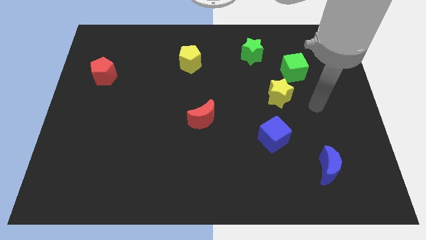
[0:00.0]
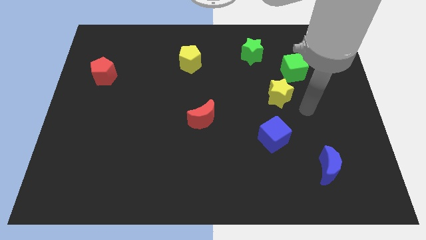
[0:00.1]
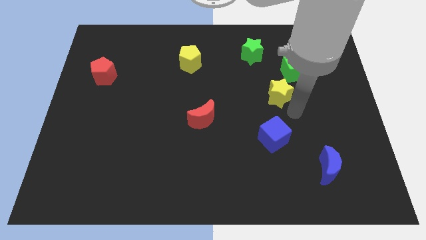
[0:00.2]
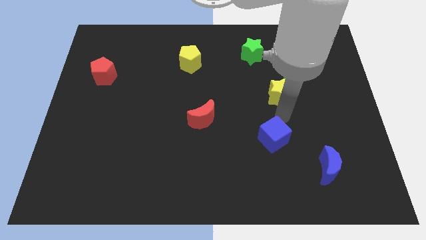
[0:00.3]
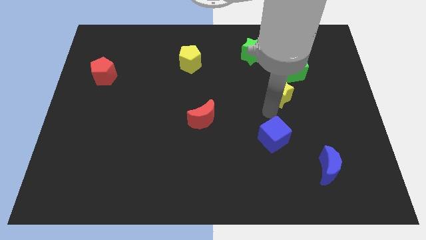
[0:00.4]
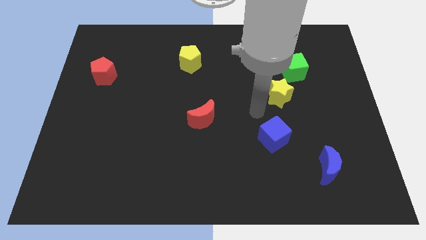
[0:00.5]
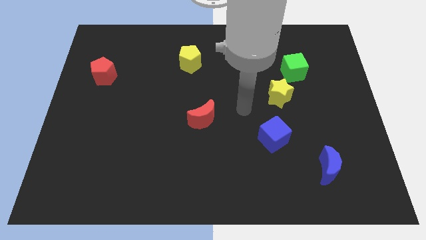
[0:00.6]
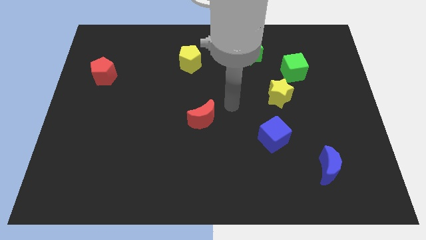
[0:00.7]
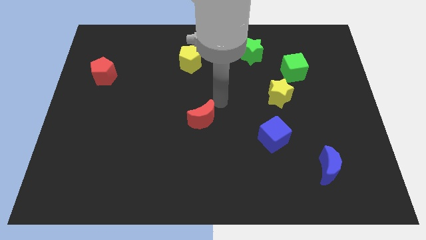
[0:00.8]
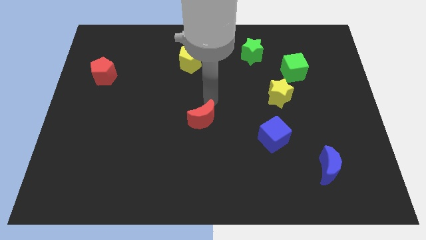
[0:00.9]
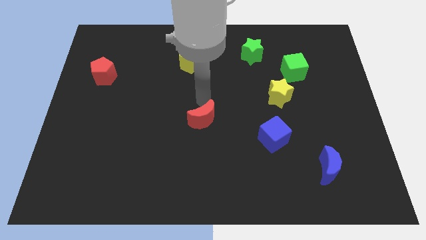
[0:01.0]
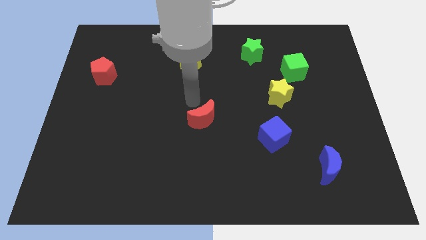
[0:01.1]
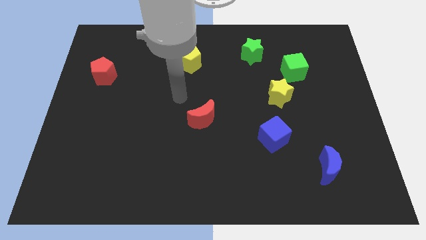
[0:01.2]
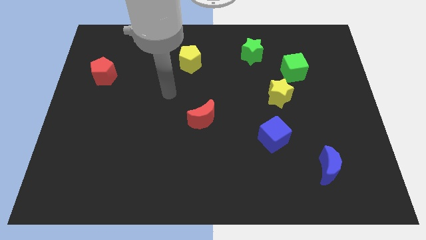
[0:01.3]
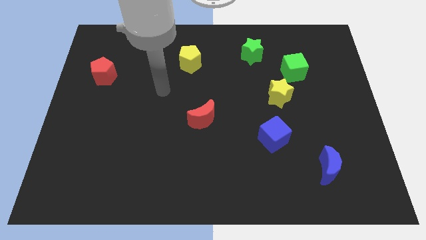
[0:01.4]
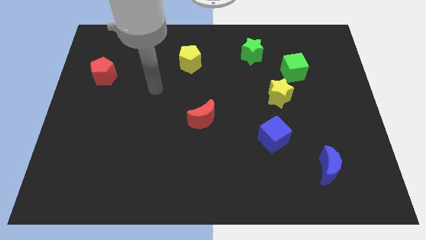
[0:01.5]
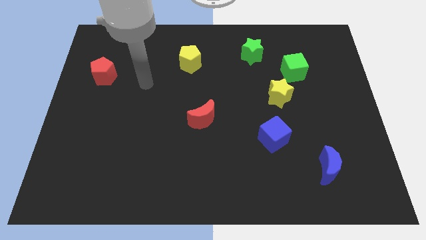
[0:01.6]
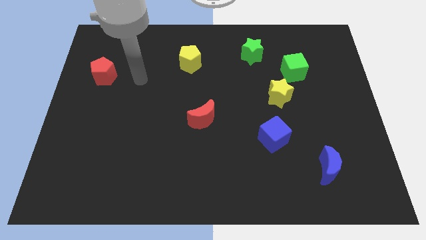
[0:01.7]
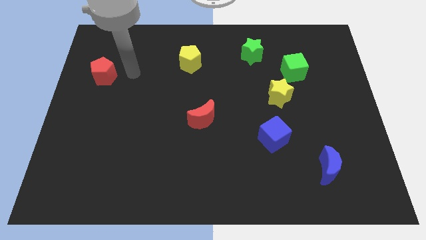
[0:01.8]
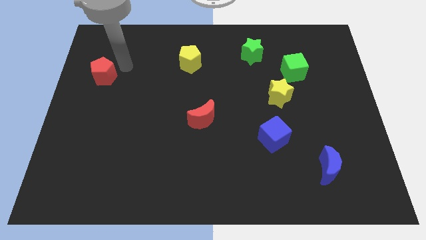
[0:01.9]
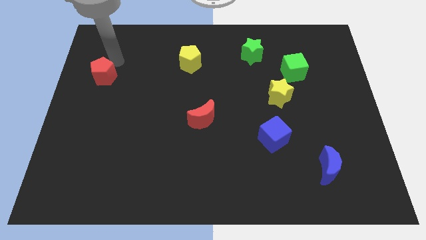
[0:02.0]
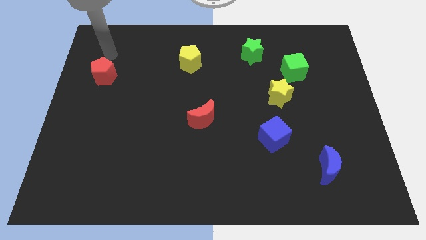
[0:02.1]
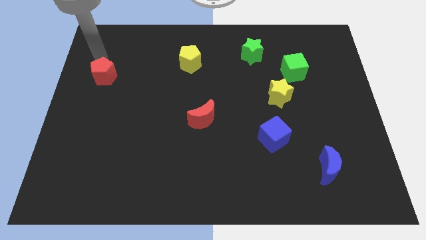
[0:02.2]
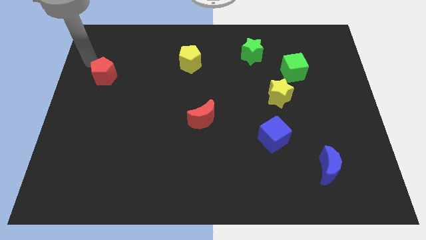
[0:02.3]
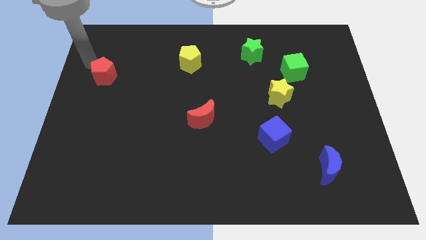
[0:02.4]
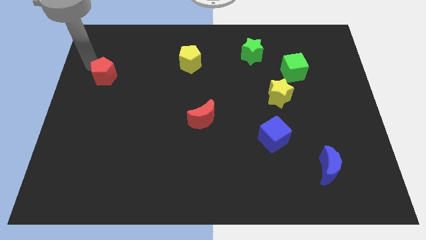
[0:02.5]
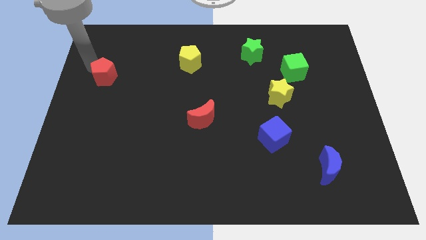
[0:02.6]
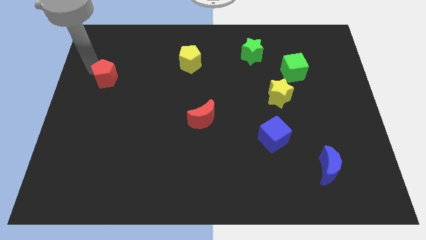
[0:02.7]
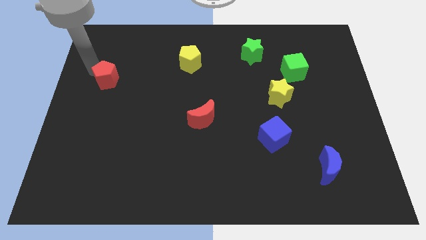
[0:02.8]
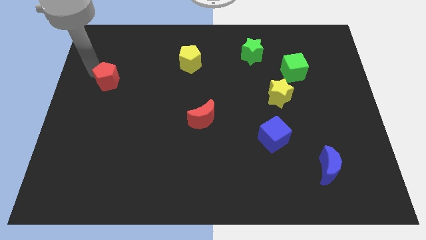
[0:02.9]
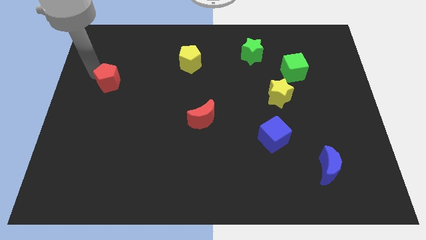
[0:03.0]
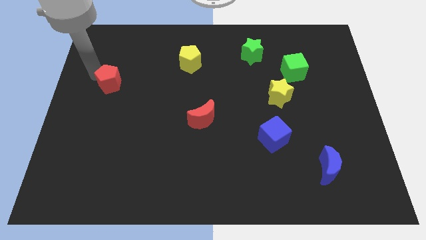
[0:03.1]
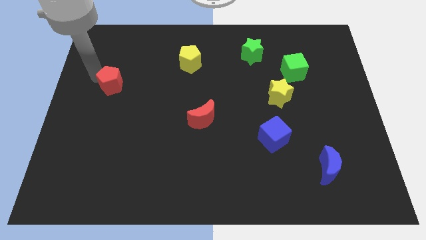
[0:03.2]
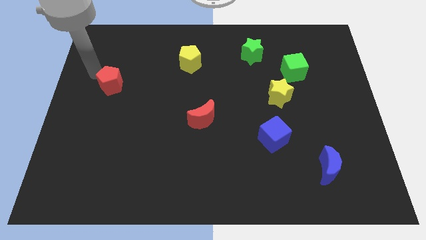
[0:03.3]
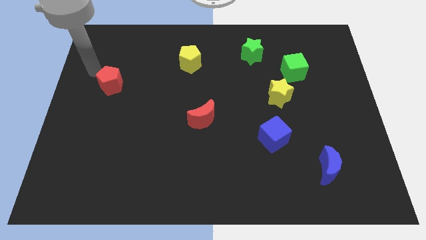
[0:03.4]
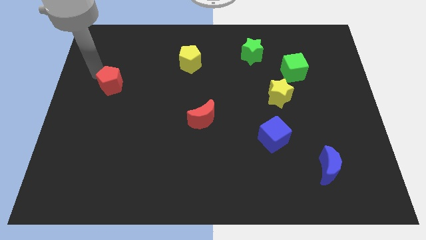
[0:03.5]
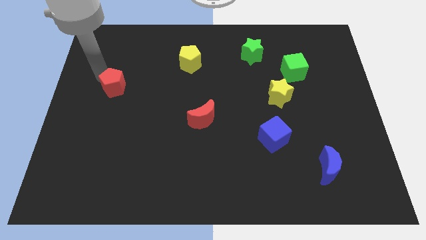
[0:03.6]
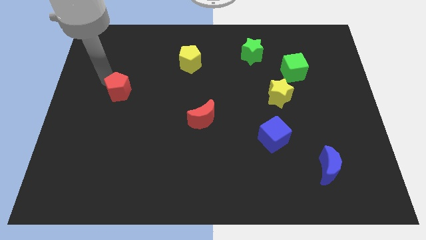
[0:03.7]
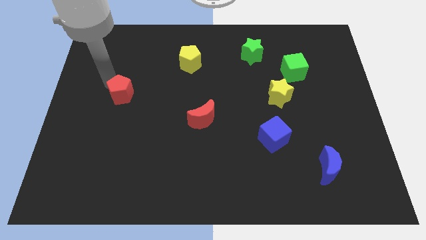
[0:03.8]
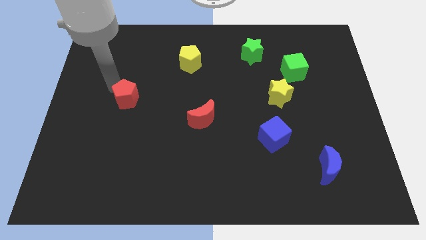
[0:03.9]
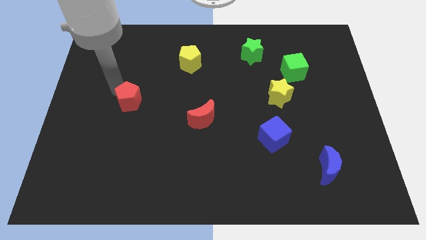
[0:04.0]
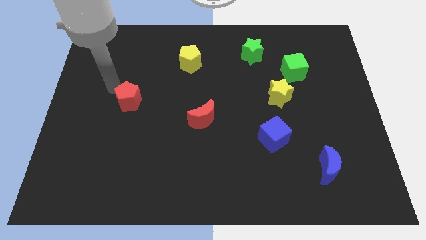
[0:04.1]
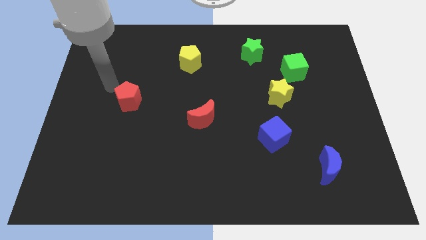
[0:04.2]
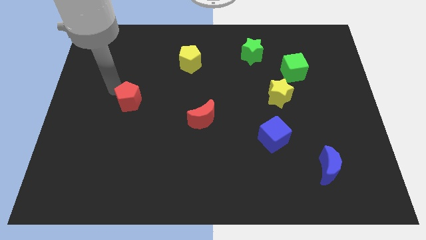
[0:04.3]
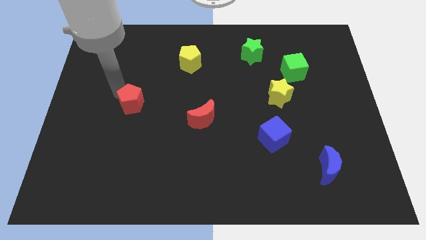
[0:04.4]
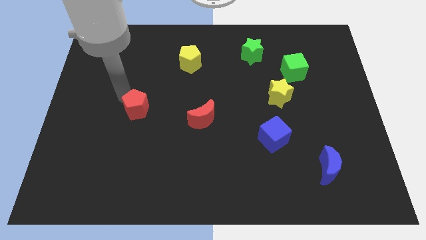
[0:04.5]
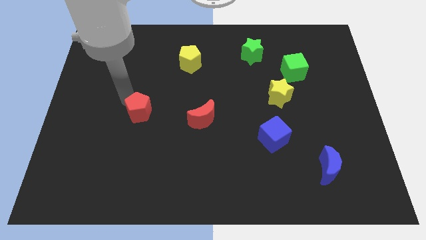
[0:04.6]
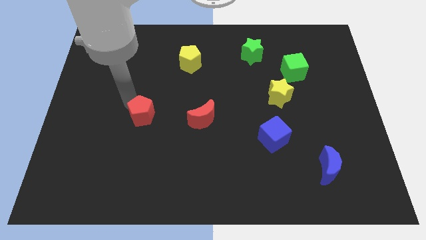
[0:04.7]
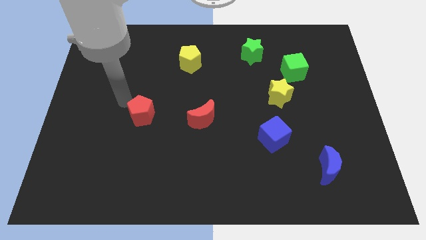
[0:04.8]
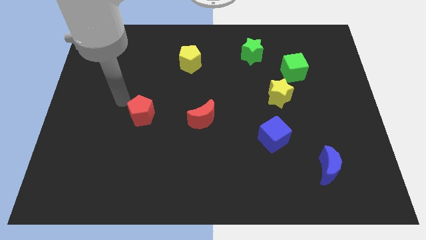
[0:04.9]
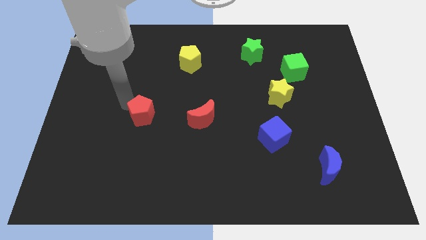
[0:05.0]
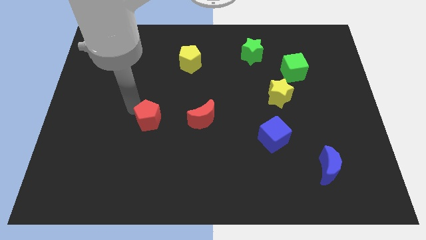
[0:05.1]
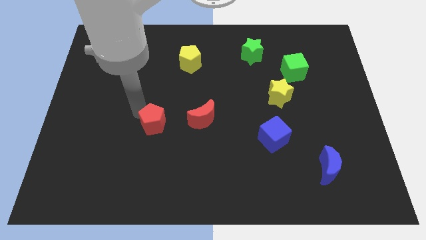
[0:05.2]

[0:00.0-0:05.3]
move the red pentagon downwards and then to the right

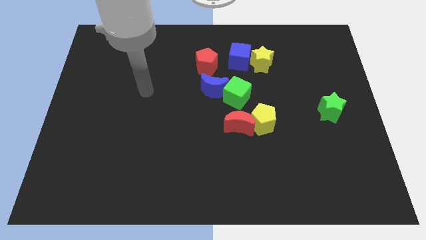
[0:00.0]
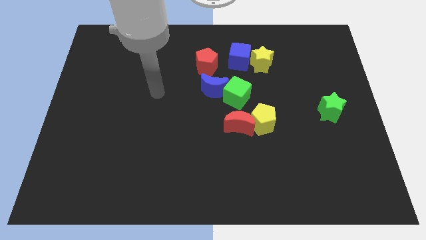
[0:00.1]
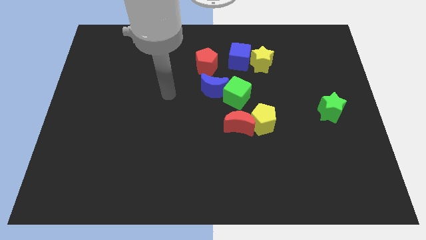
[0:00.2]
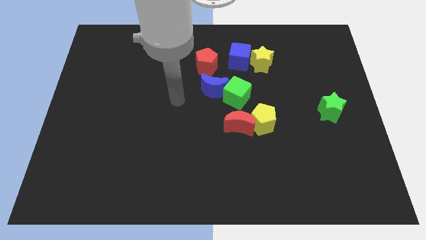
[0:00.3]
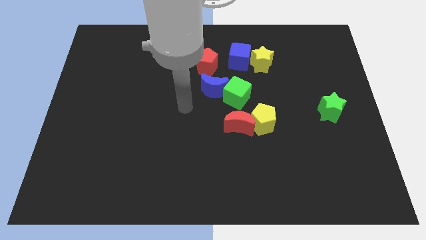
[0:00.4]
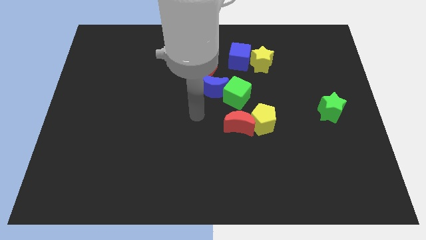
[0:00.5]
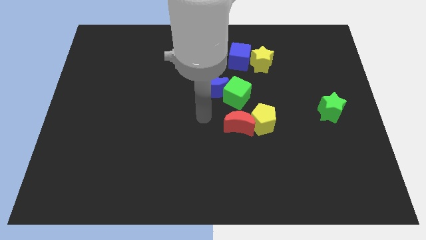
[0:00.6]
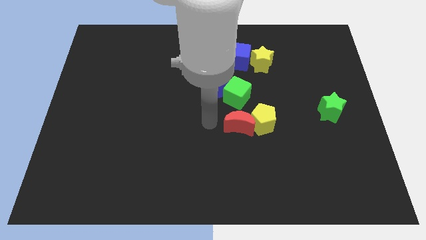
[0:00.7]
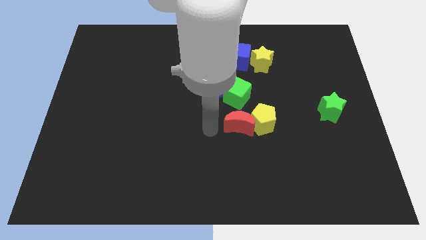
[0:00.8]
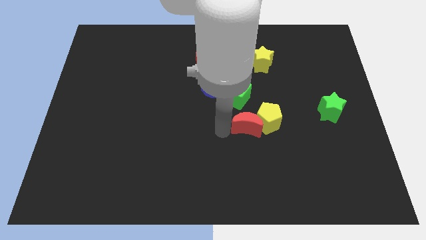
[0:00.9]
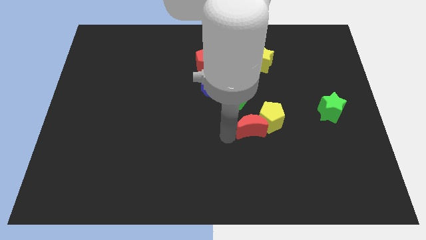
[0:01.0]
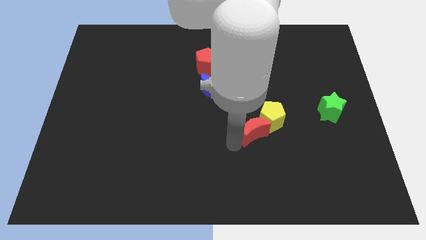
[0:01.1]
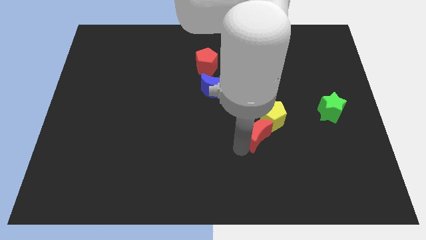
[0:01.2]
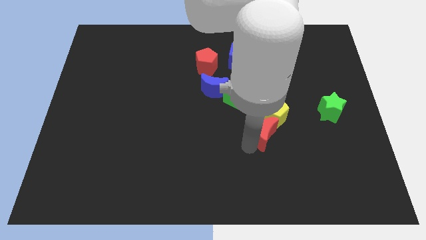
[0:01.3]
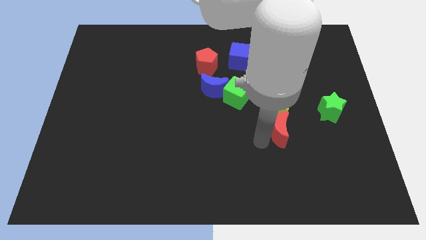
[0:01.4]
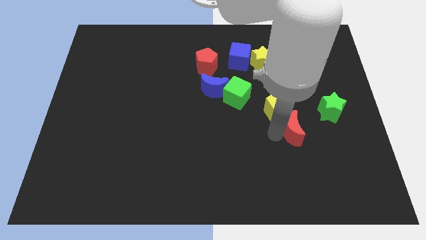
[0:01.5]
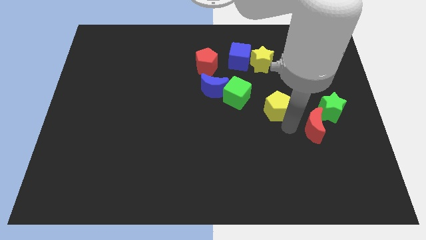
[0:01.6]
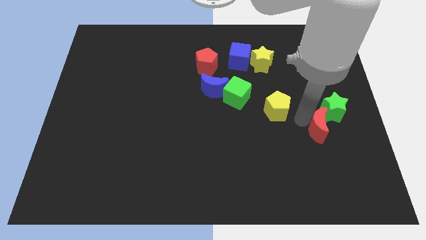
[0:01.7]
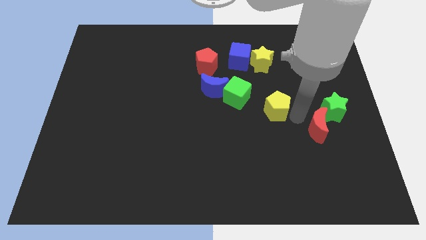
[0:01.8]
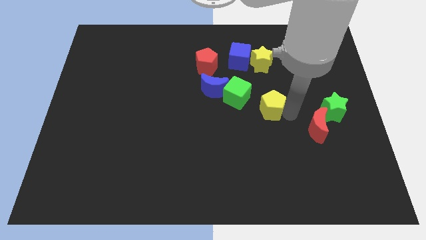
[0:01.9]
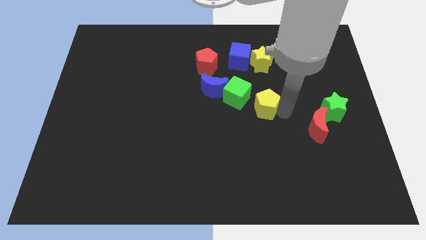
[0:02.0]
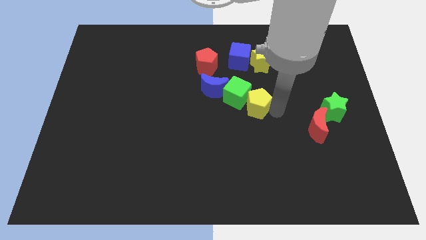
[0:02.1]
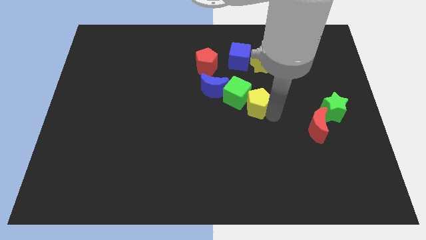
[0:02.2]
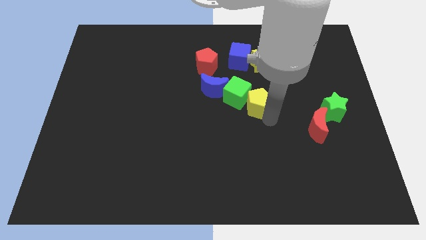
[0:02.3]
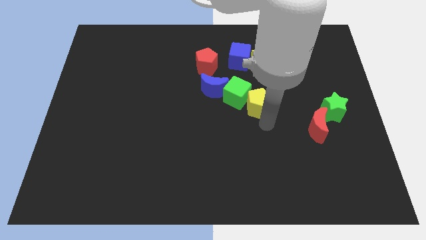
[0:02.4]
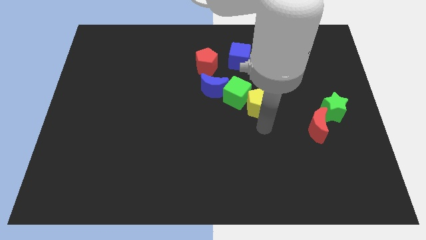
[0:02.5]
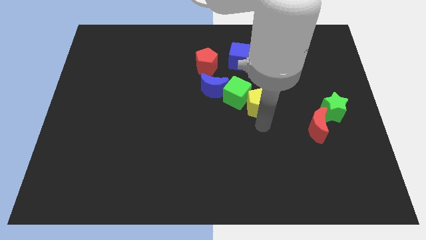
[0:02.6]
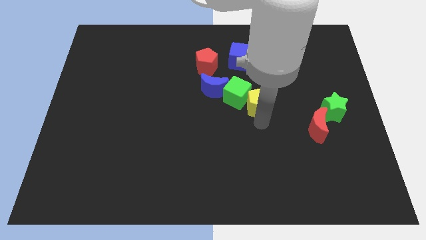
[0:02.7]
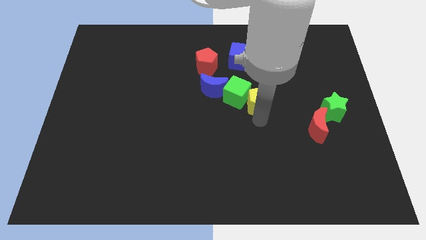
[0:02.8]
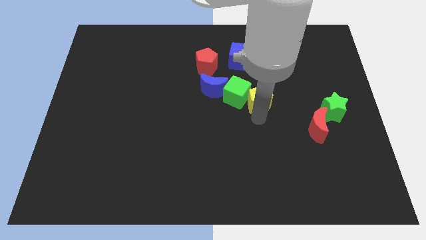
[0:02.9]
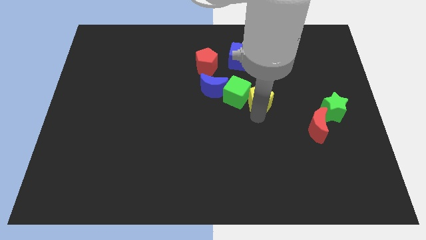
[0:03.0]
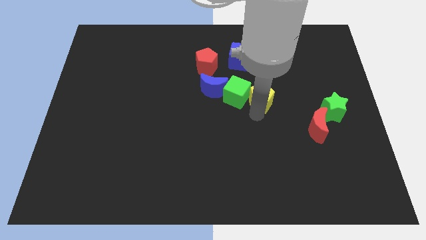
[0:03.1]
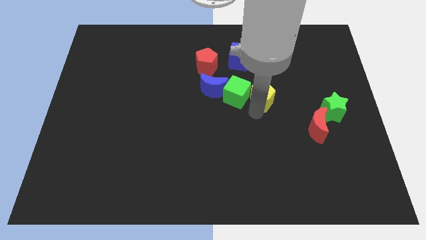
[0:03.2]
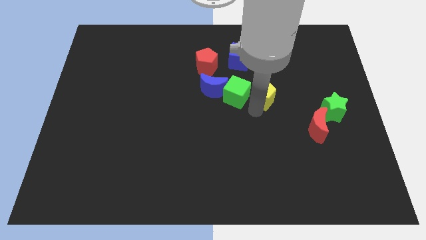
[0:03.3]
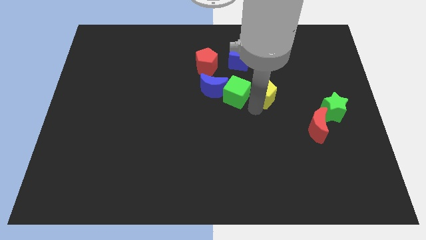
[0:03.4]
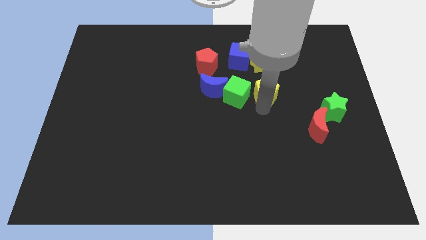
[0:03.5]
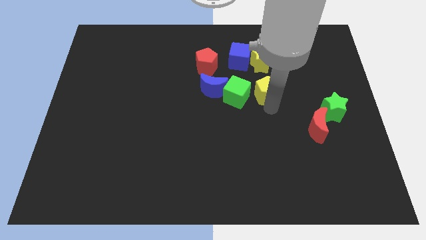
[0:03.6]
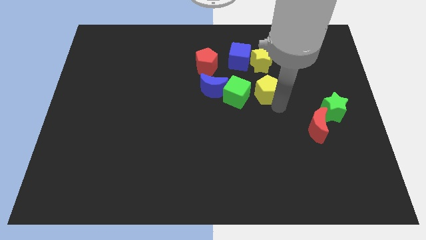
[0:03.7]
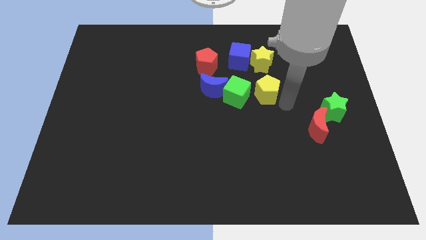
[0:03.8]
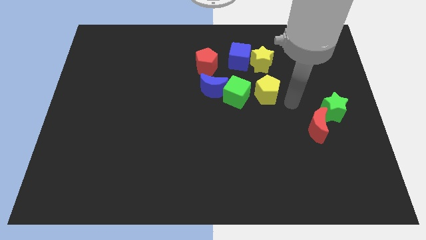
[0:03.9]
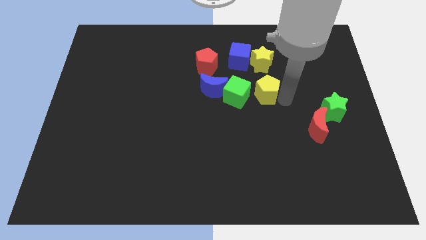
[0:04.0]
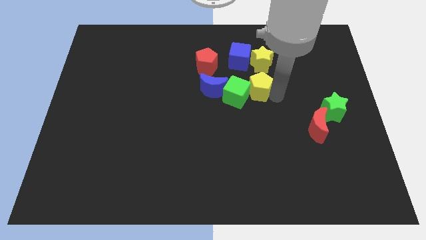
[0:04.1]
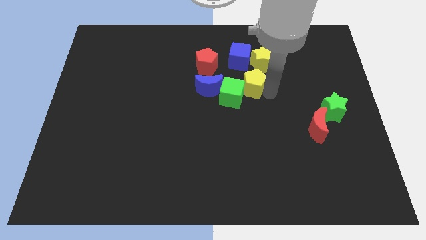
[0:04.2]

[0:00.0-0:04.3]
slightly push the yellow pentagon diagonally upwards and left
